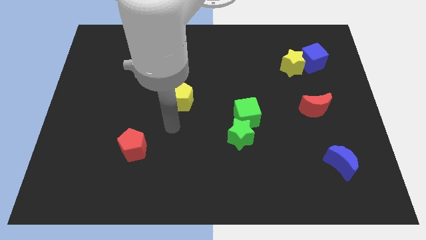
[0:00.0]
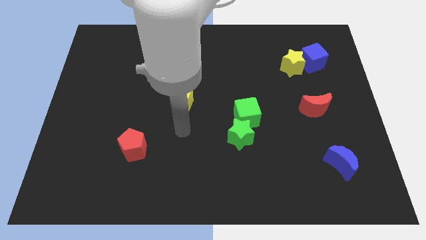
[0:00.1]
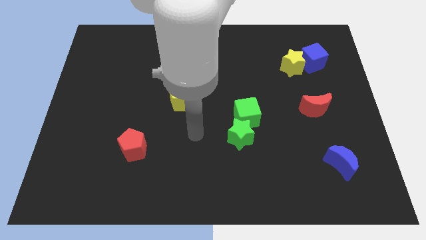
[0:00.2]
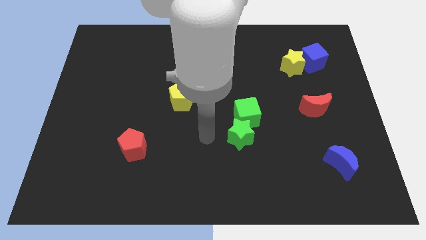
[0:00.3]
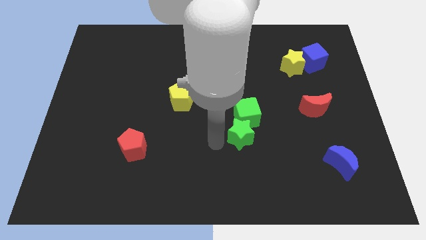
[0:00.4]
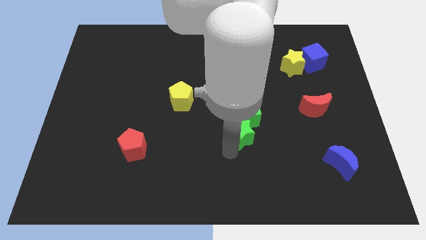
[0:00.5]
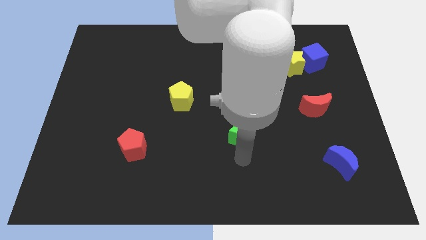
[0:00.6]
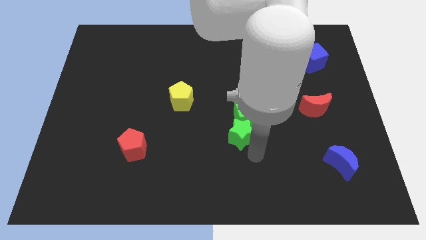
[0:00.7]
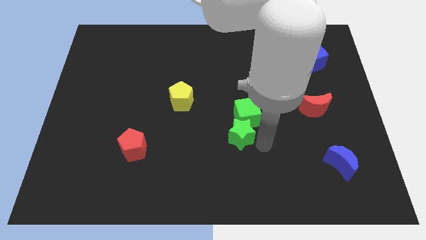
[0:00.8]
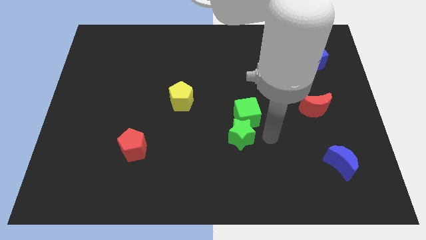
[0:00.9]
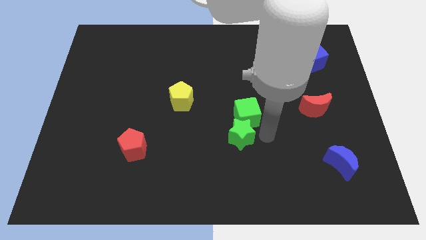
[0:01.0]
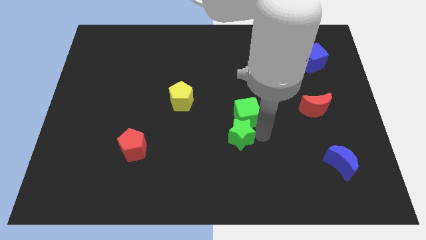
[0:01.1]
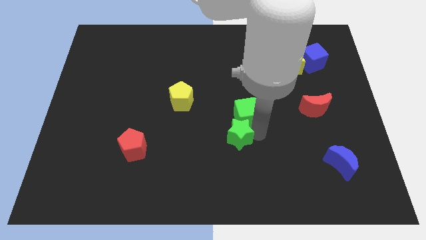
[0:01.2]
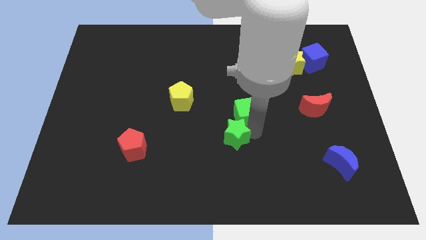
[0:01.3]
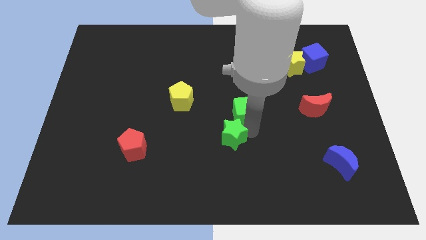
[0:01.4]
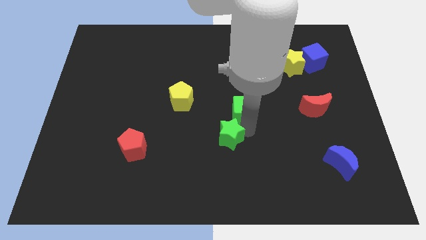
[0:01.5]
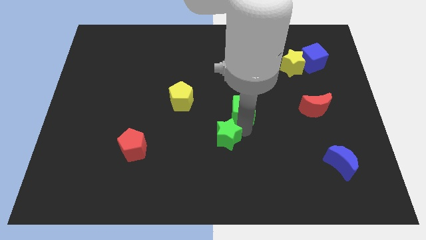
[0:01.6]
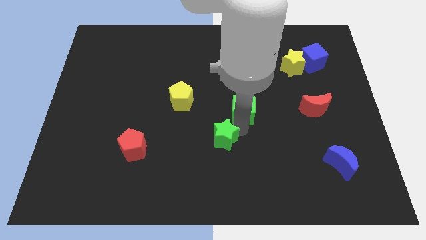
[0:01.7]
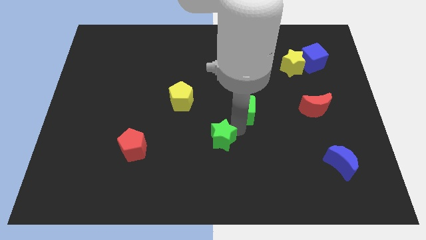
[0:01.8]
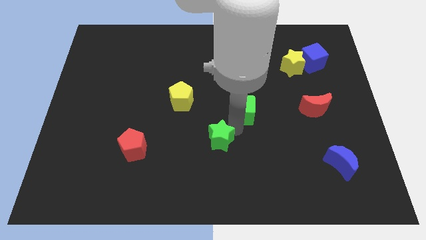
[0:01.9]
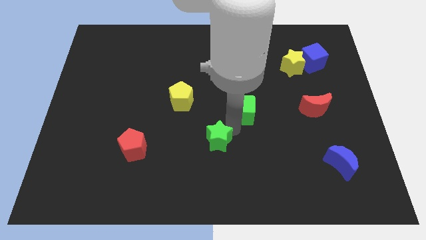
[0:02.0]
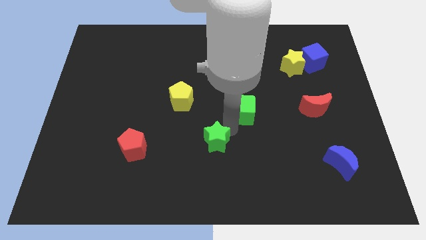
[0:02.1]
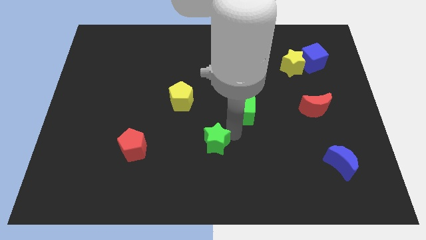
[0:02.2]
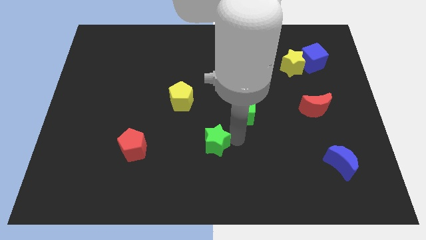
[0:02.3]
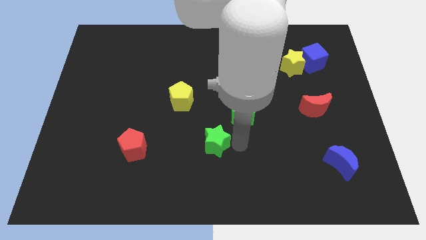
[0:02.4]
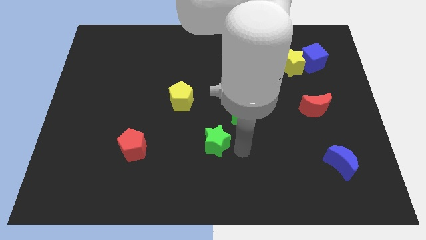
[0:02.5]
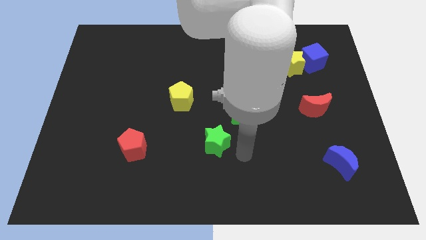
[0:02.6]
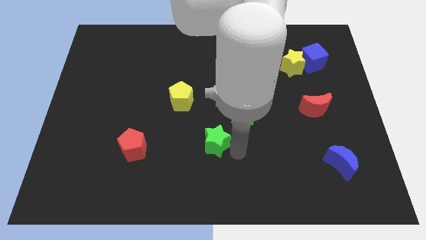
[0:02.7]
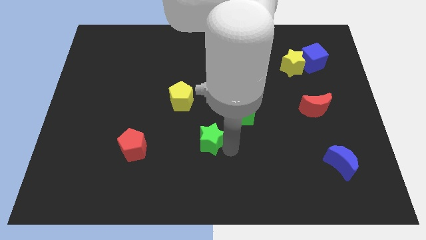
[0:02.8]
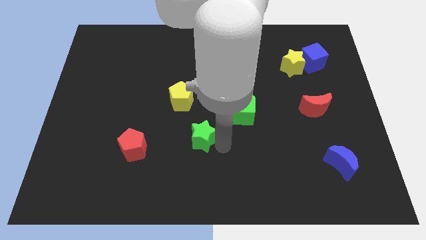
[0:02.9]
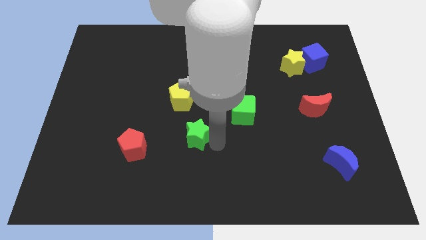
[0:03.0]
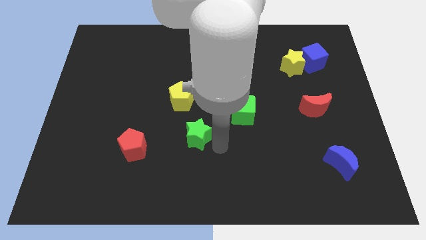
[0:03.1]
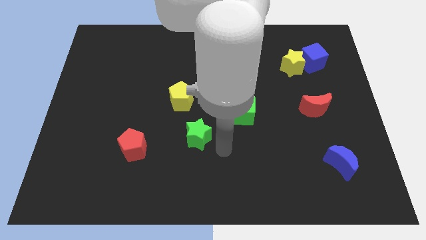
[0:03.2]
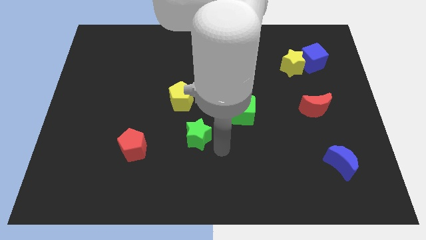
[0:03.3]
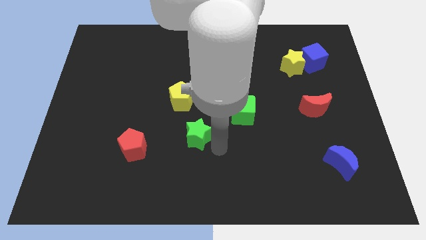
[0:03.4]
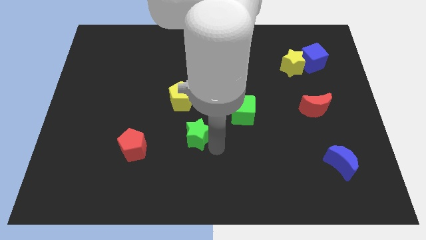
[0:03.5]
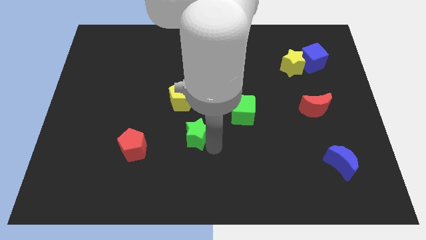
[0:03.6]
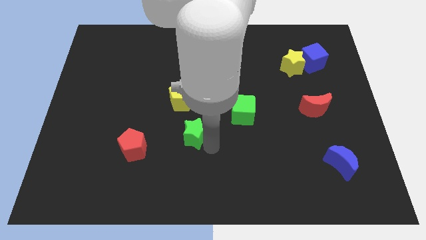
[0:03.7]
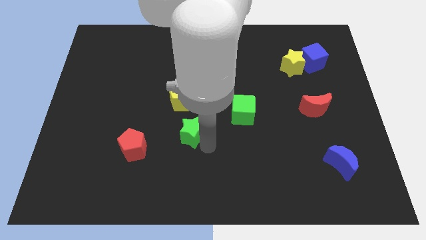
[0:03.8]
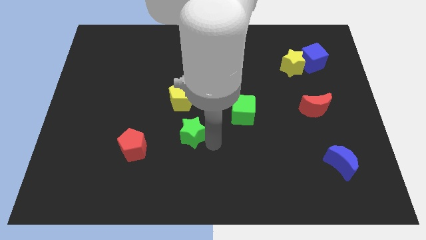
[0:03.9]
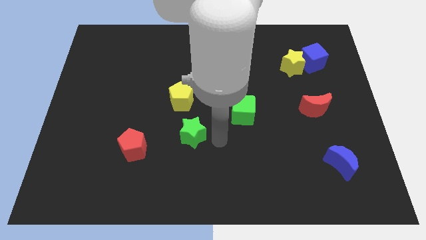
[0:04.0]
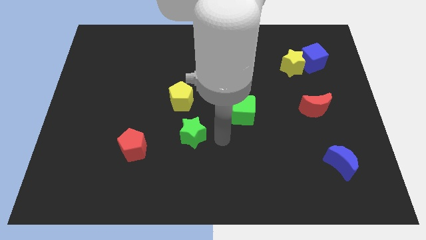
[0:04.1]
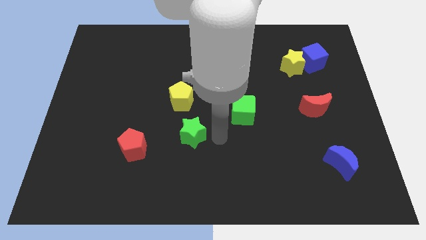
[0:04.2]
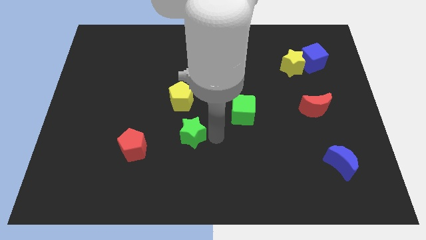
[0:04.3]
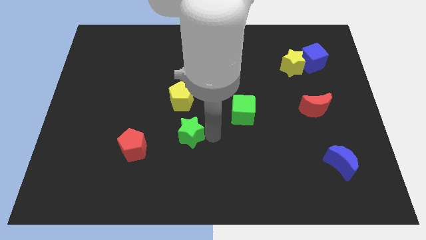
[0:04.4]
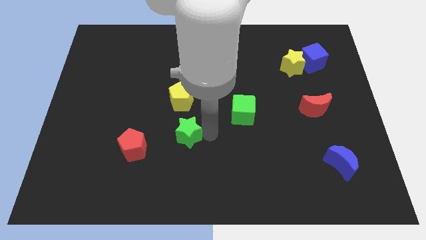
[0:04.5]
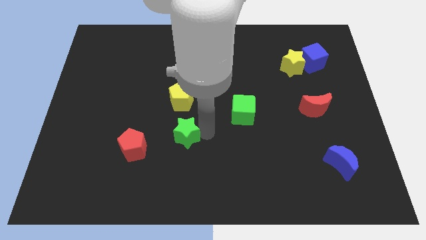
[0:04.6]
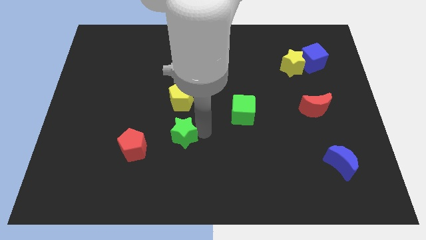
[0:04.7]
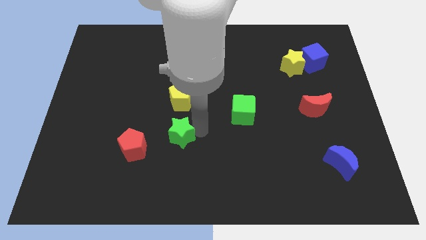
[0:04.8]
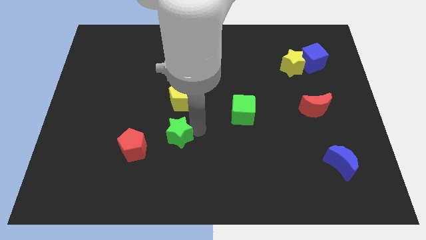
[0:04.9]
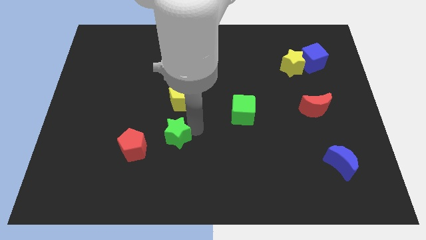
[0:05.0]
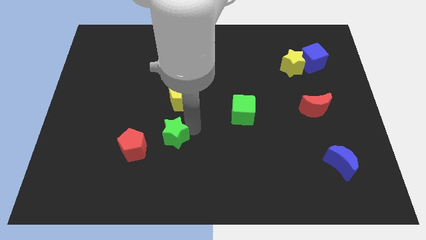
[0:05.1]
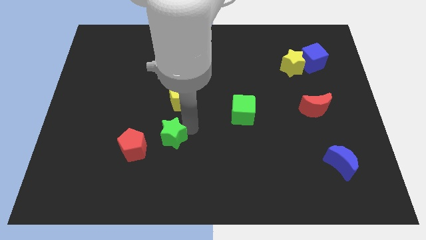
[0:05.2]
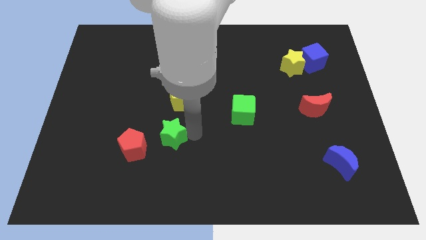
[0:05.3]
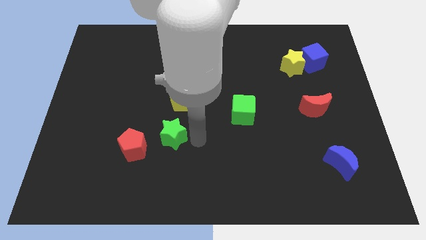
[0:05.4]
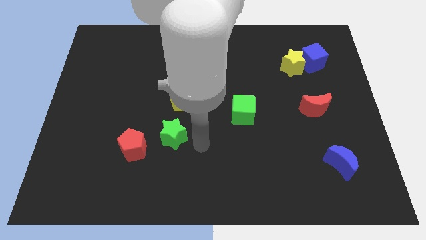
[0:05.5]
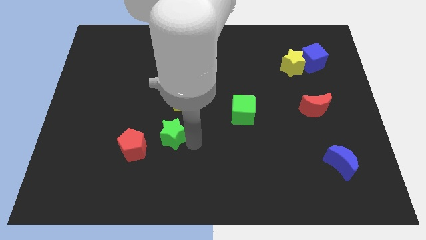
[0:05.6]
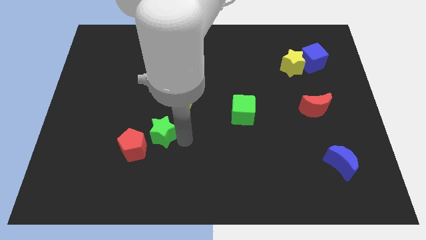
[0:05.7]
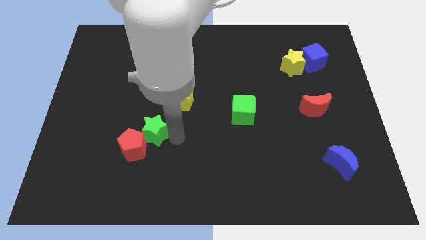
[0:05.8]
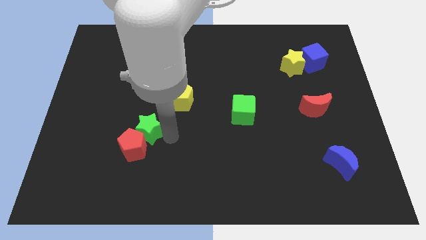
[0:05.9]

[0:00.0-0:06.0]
slide the green star left

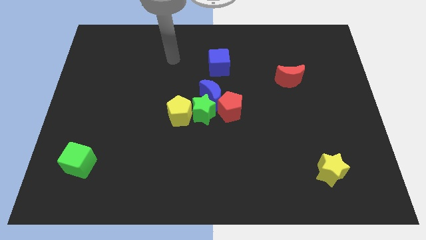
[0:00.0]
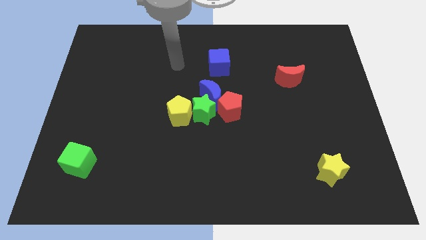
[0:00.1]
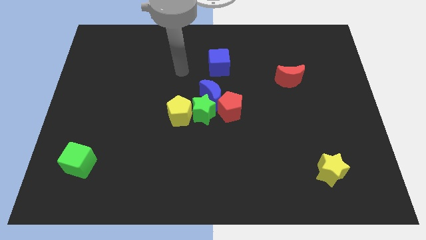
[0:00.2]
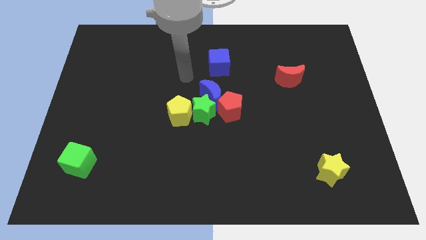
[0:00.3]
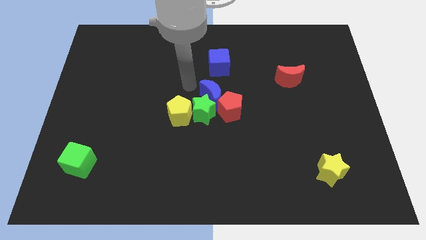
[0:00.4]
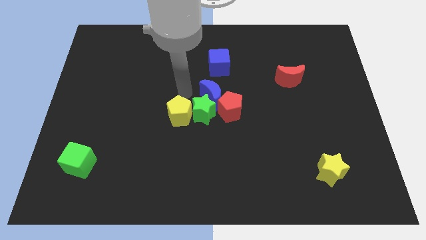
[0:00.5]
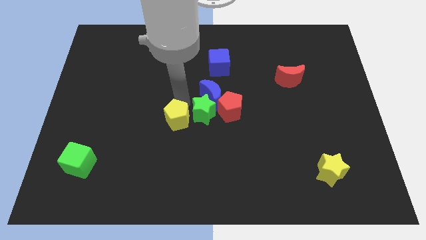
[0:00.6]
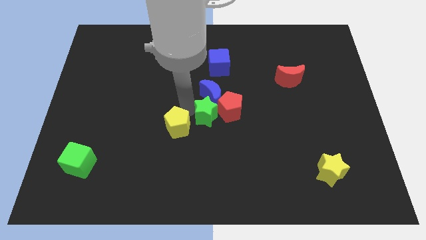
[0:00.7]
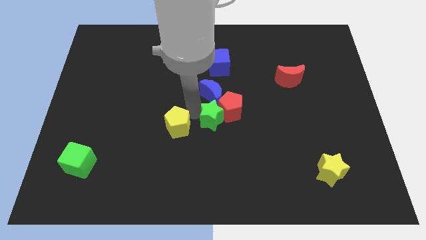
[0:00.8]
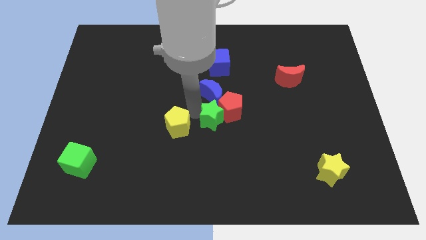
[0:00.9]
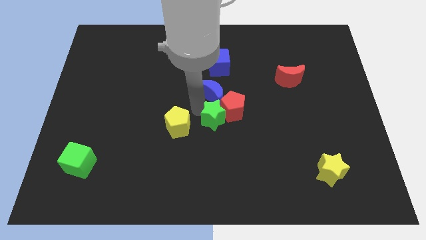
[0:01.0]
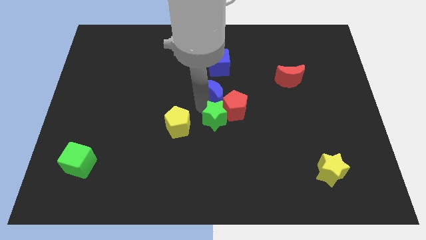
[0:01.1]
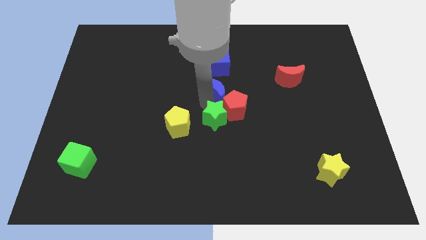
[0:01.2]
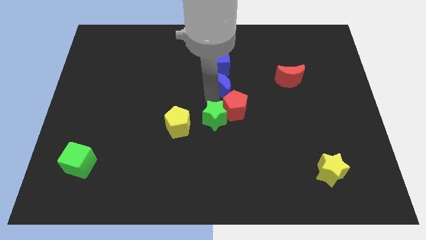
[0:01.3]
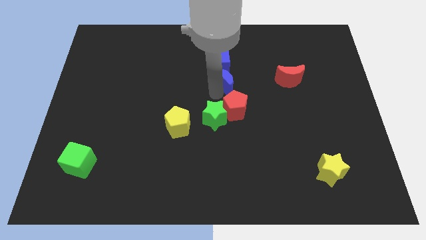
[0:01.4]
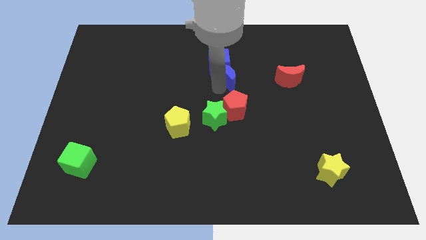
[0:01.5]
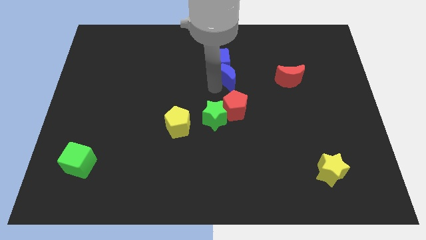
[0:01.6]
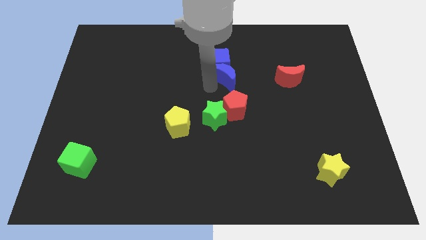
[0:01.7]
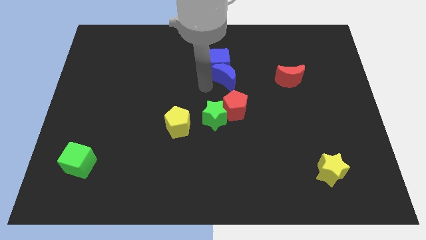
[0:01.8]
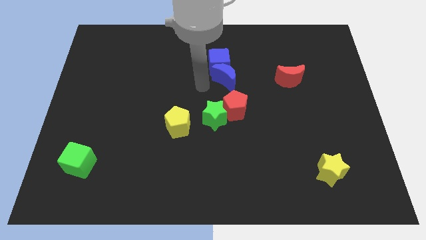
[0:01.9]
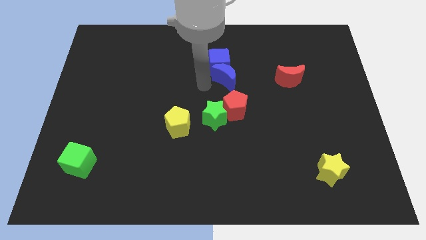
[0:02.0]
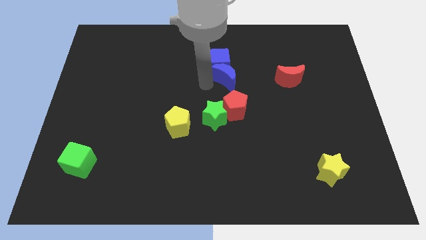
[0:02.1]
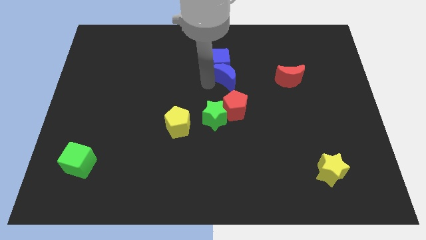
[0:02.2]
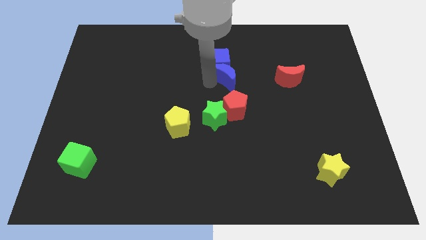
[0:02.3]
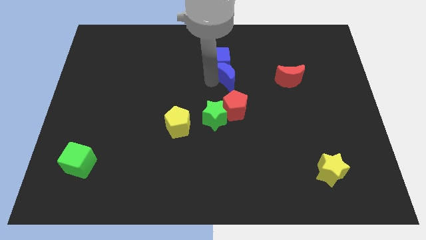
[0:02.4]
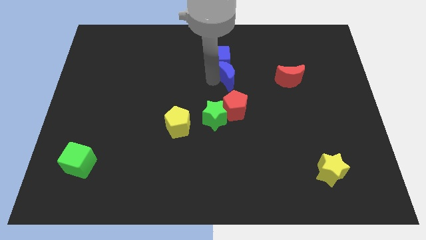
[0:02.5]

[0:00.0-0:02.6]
move the blue moon somewhat up and then right
